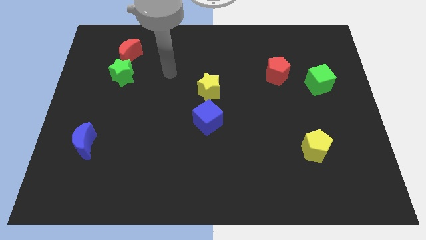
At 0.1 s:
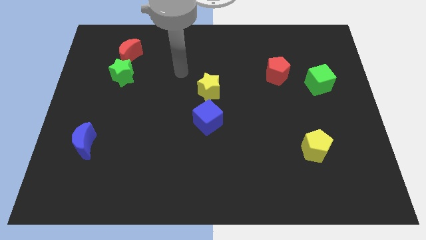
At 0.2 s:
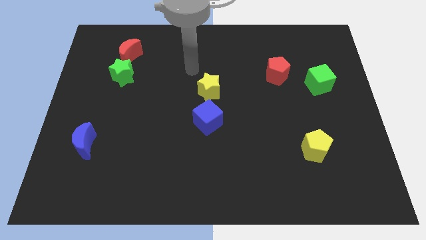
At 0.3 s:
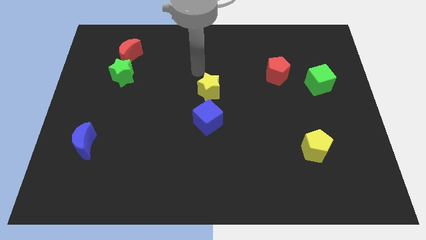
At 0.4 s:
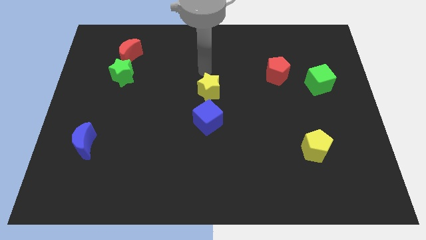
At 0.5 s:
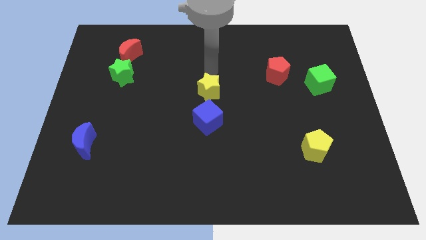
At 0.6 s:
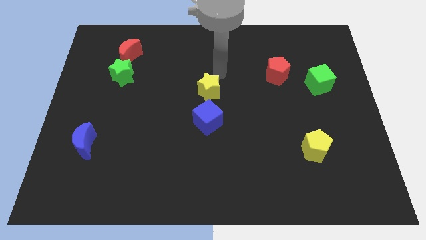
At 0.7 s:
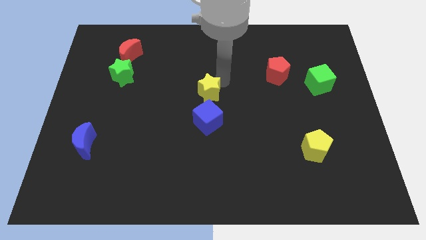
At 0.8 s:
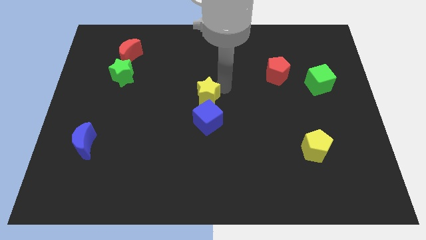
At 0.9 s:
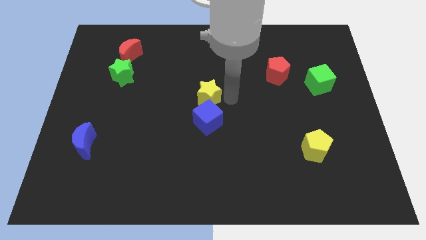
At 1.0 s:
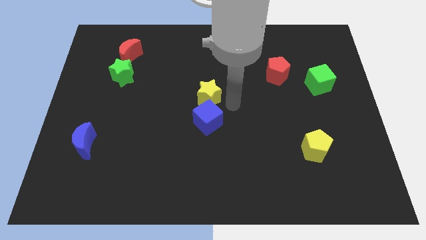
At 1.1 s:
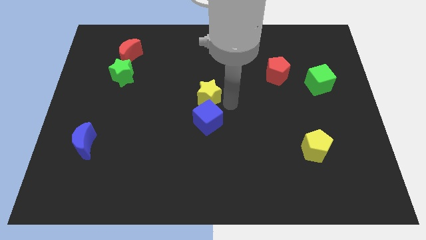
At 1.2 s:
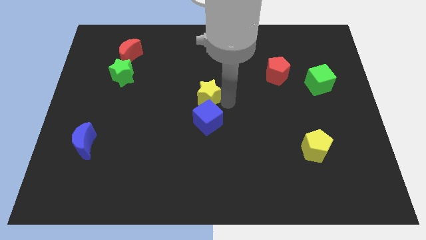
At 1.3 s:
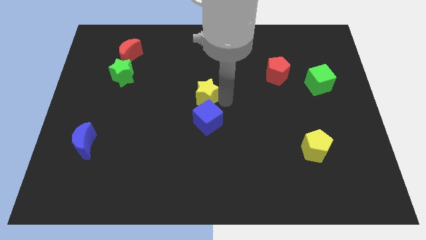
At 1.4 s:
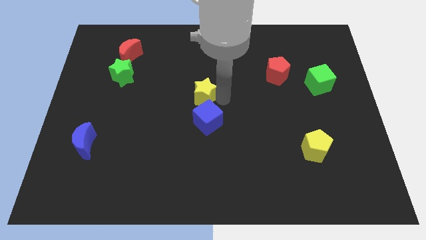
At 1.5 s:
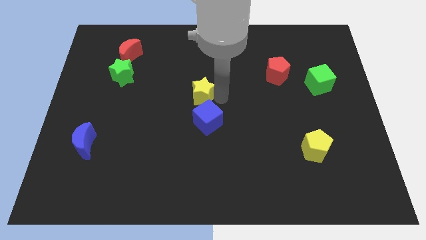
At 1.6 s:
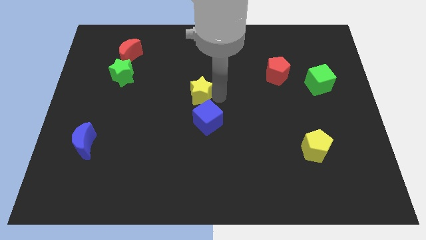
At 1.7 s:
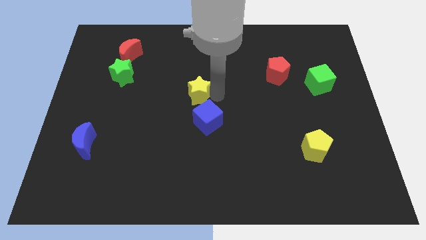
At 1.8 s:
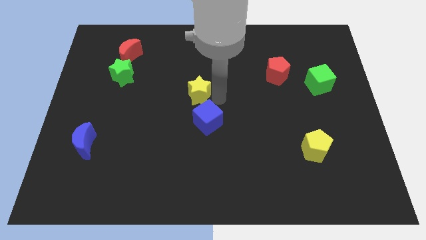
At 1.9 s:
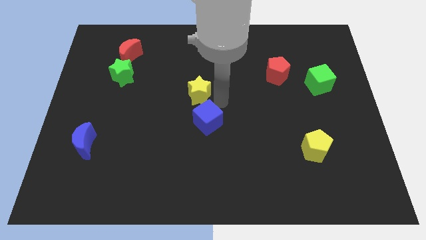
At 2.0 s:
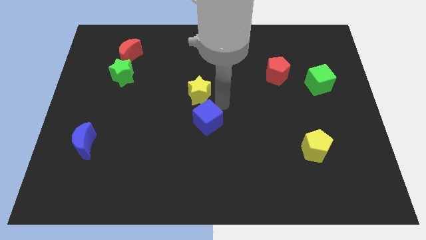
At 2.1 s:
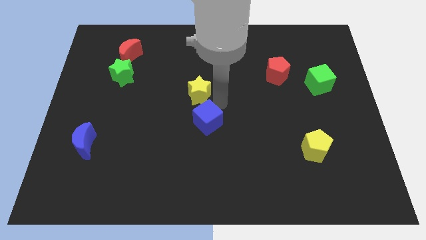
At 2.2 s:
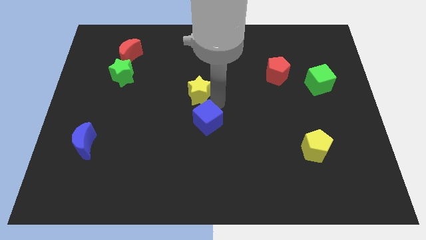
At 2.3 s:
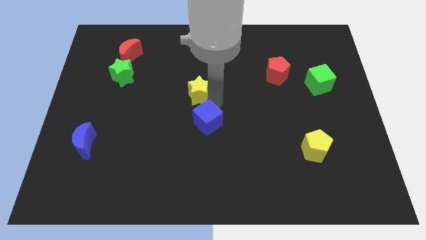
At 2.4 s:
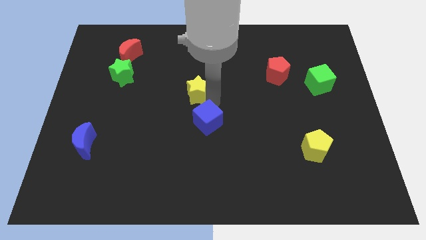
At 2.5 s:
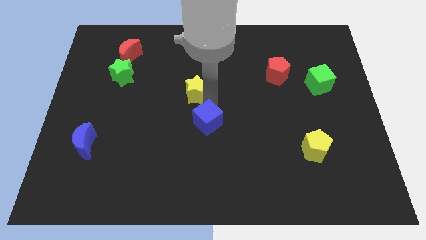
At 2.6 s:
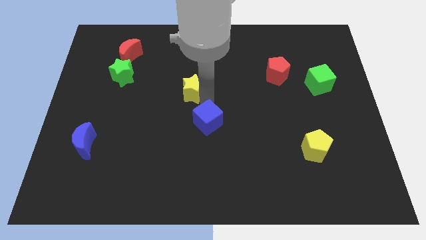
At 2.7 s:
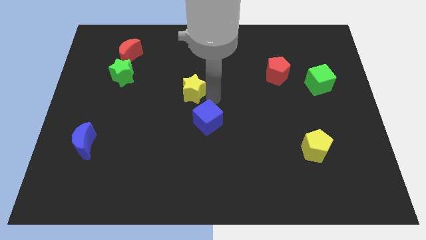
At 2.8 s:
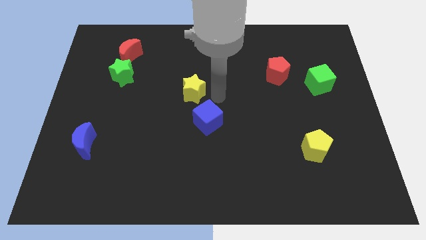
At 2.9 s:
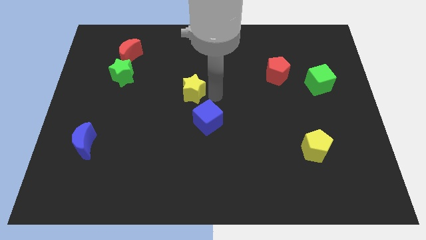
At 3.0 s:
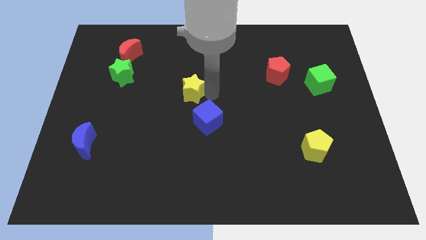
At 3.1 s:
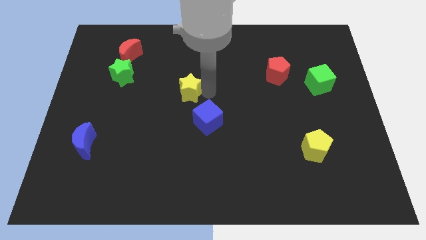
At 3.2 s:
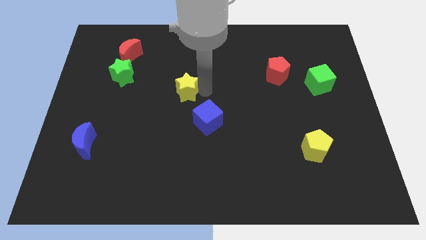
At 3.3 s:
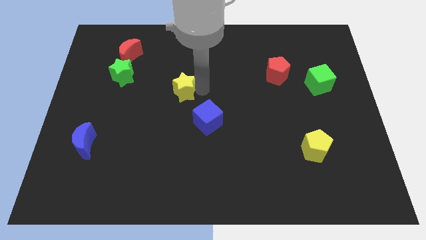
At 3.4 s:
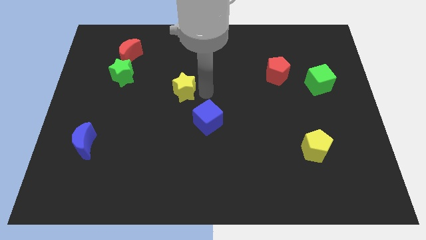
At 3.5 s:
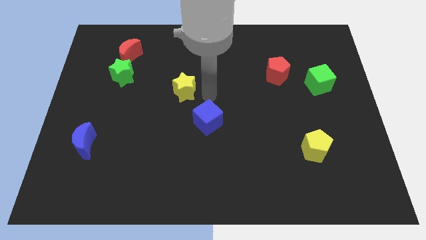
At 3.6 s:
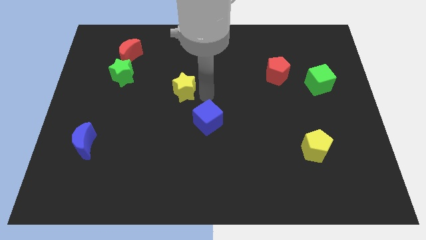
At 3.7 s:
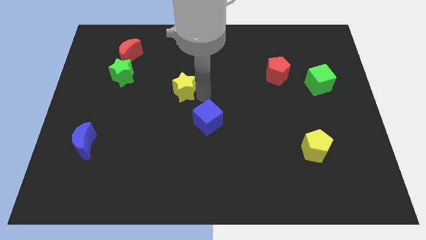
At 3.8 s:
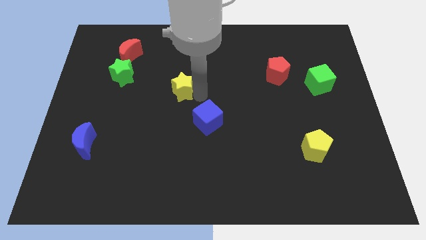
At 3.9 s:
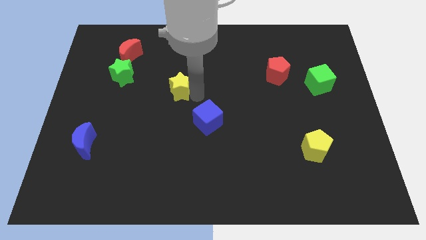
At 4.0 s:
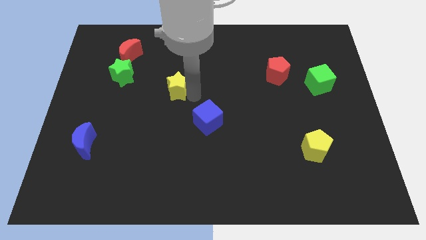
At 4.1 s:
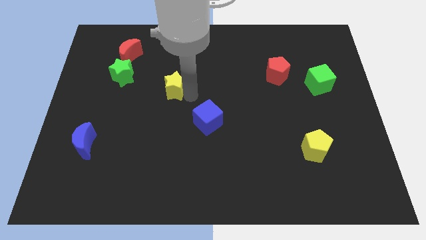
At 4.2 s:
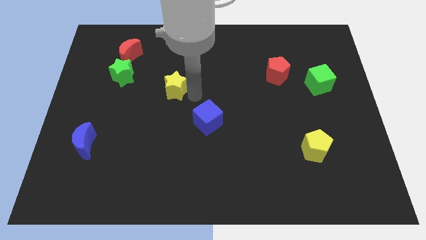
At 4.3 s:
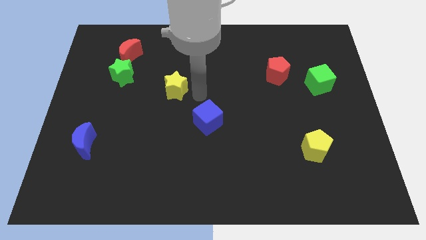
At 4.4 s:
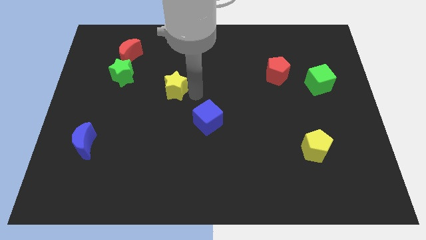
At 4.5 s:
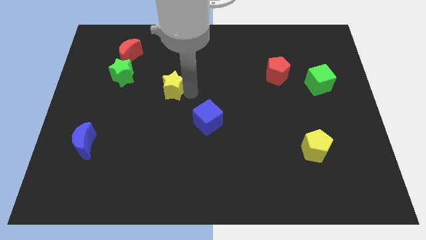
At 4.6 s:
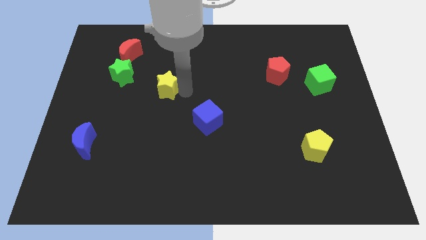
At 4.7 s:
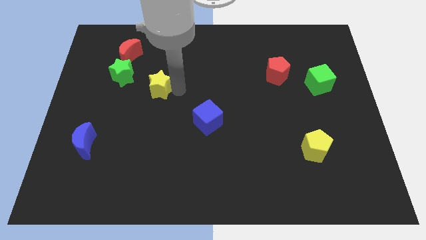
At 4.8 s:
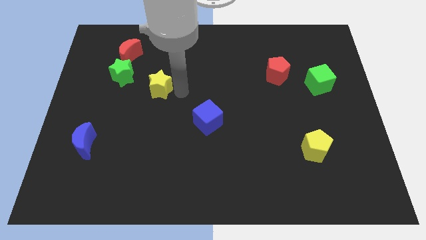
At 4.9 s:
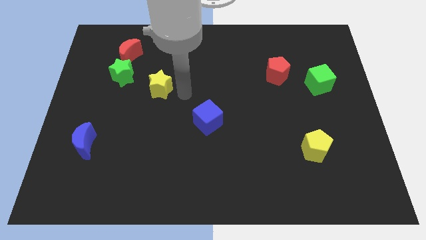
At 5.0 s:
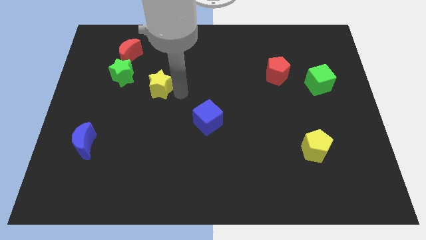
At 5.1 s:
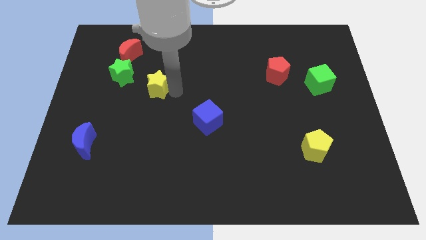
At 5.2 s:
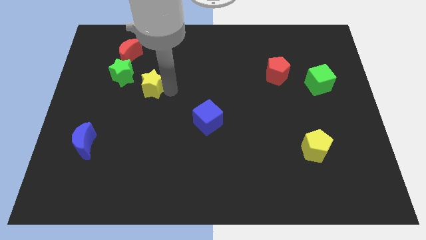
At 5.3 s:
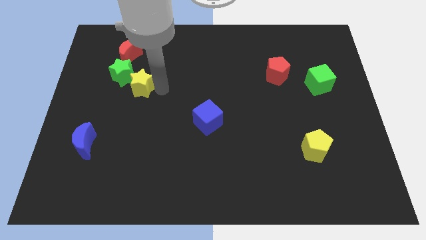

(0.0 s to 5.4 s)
push the yellow star close to the green star

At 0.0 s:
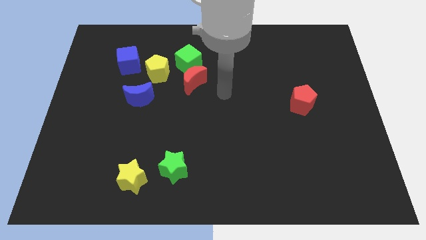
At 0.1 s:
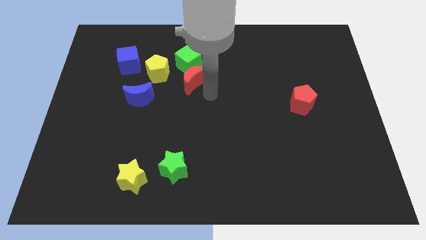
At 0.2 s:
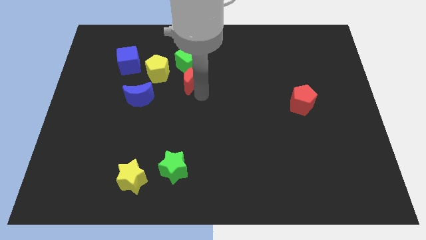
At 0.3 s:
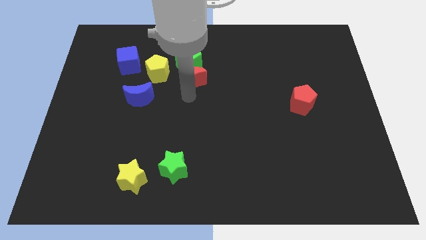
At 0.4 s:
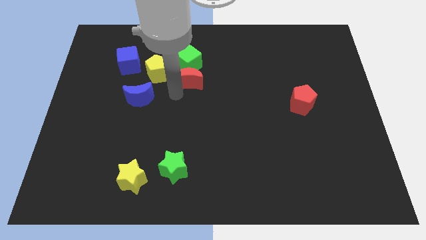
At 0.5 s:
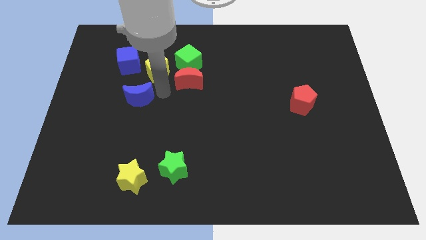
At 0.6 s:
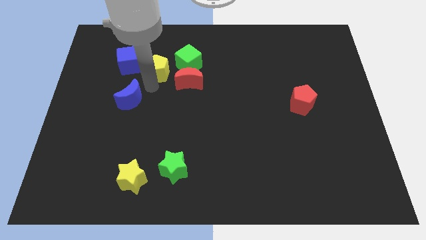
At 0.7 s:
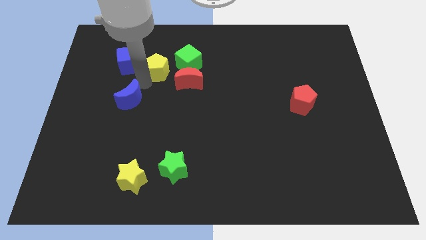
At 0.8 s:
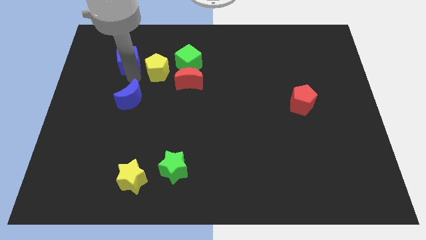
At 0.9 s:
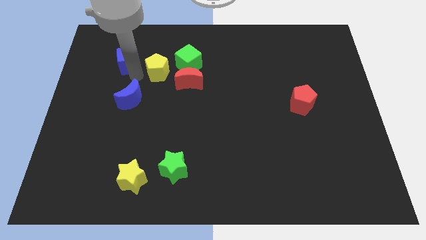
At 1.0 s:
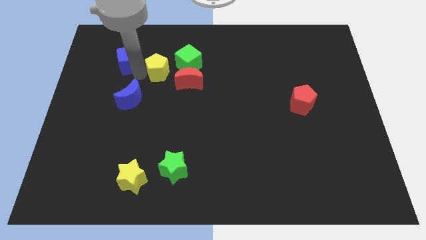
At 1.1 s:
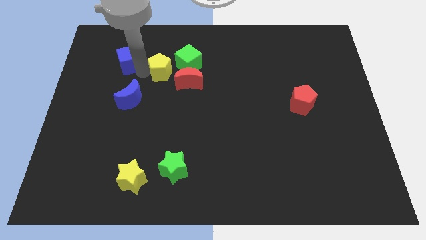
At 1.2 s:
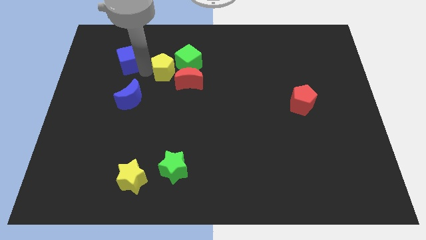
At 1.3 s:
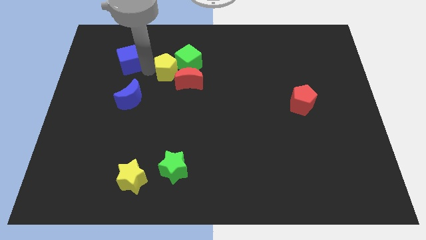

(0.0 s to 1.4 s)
move the yellow pentagon close to the green cube

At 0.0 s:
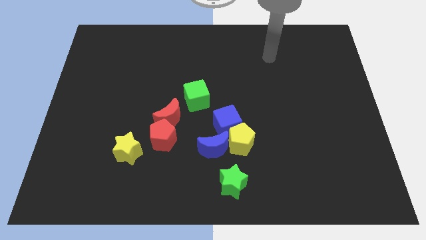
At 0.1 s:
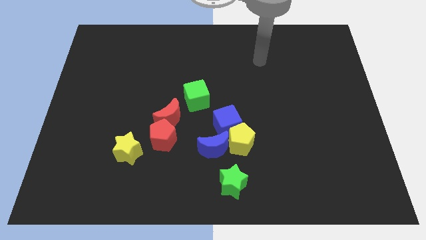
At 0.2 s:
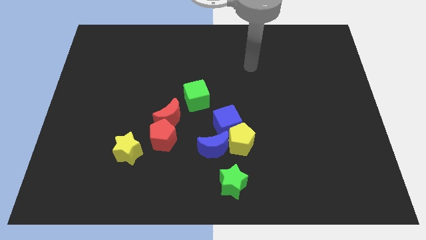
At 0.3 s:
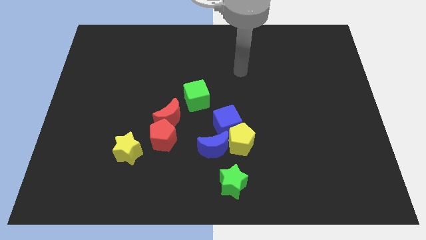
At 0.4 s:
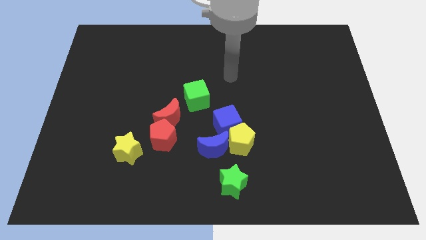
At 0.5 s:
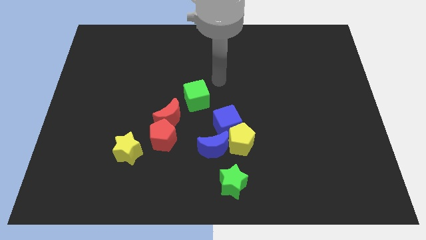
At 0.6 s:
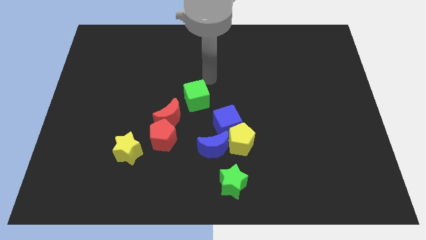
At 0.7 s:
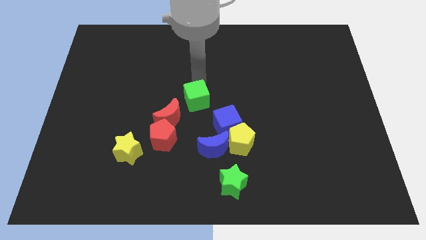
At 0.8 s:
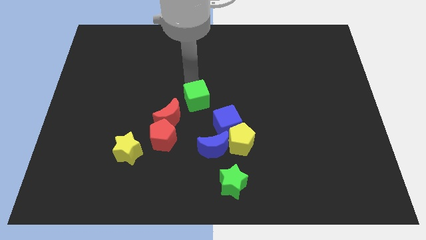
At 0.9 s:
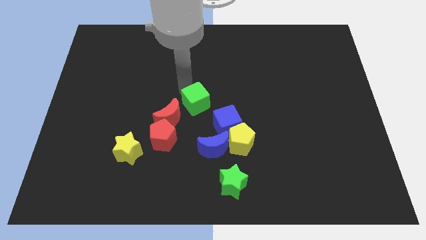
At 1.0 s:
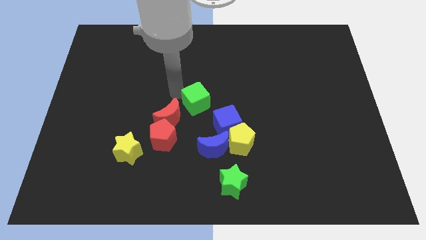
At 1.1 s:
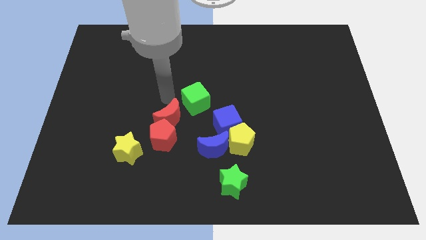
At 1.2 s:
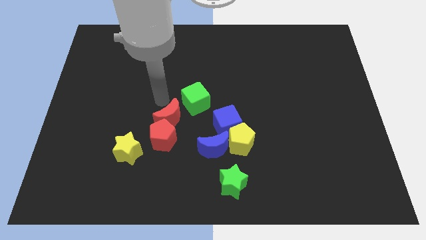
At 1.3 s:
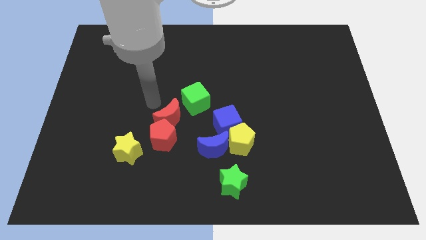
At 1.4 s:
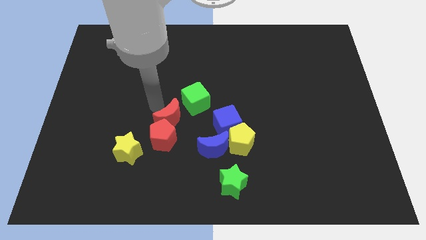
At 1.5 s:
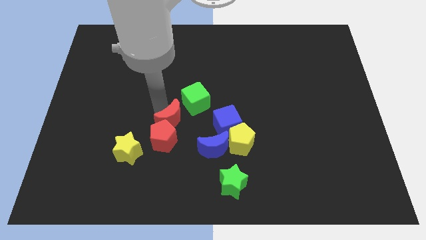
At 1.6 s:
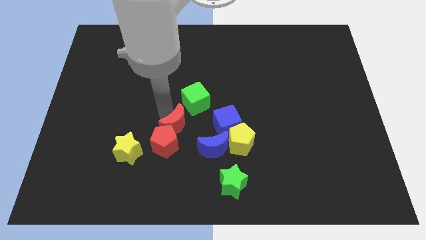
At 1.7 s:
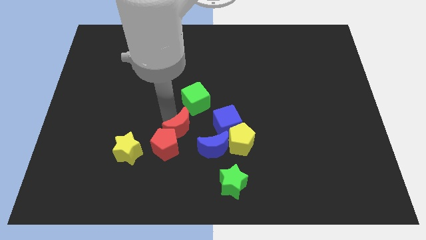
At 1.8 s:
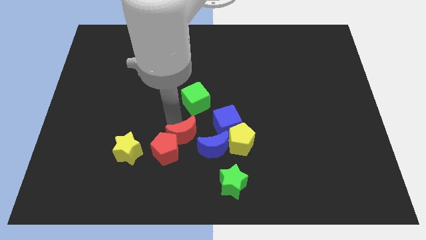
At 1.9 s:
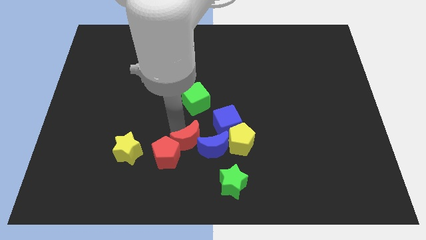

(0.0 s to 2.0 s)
slide the red moon next to the blue moon
